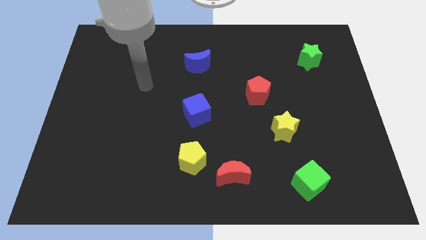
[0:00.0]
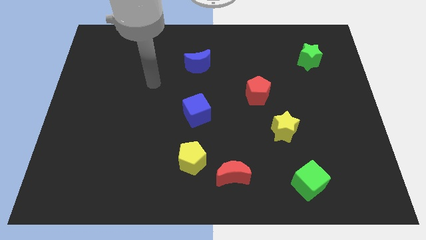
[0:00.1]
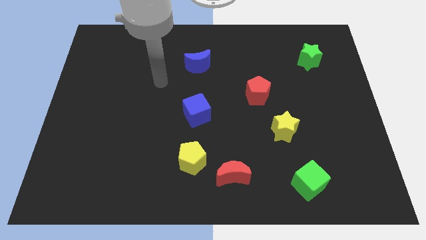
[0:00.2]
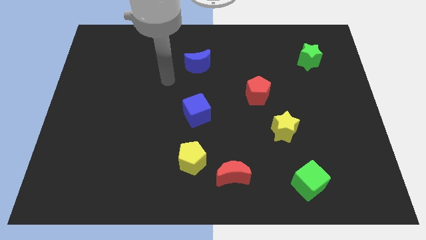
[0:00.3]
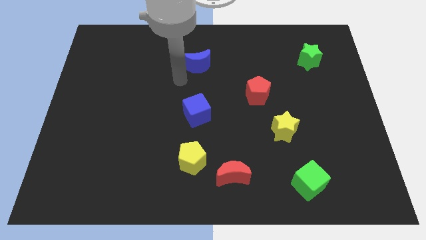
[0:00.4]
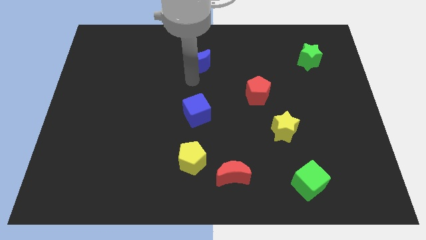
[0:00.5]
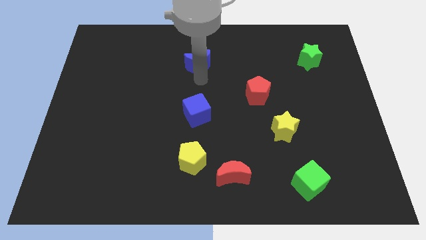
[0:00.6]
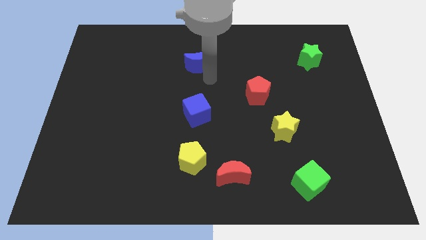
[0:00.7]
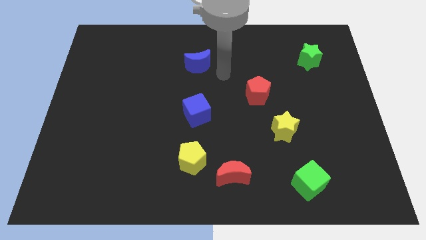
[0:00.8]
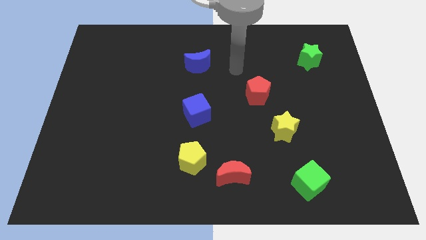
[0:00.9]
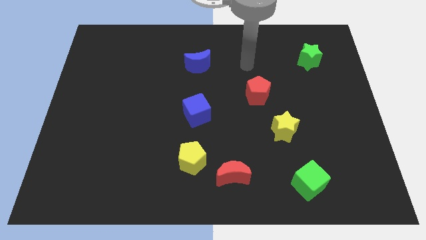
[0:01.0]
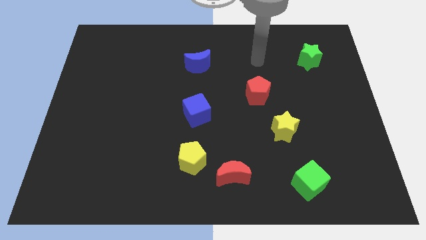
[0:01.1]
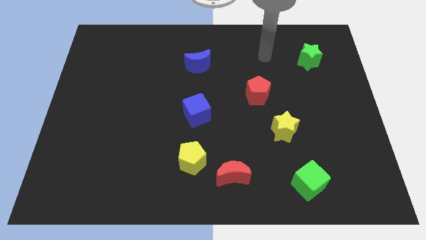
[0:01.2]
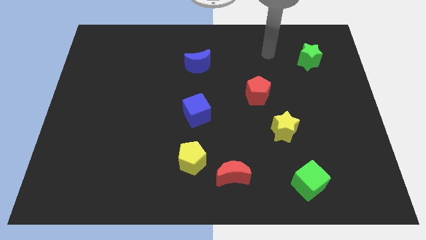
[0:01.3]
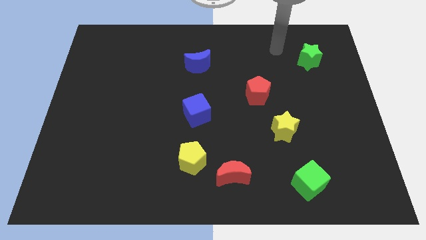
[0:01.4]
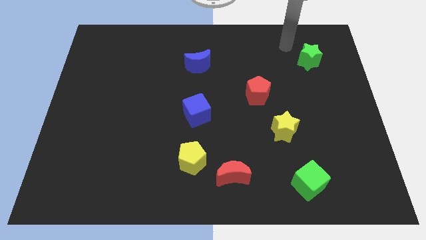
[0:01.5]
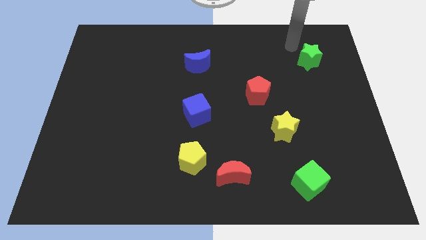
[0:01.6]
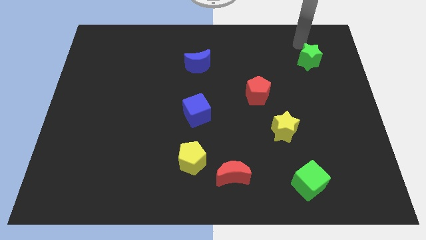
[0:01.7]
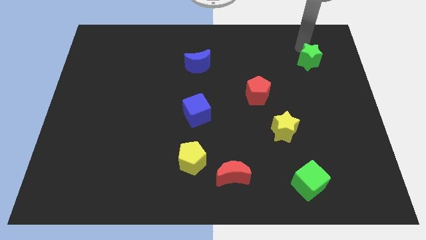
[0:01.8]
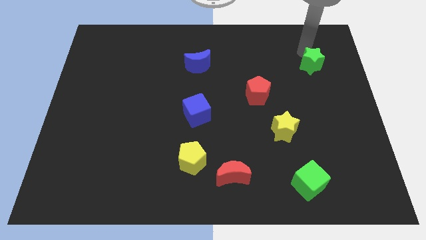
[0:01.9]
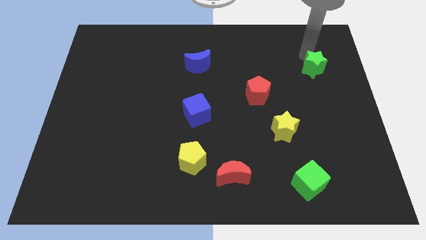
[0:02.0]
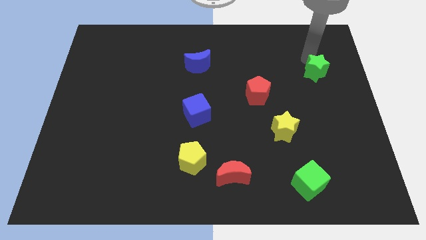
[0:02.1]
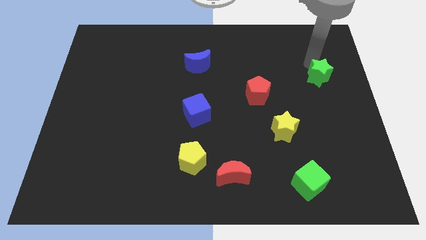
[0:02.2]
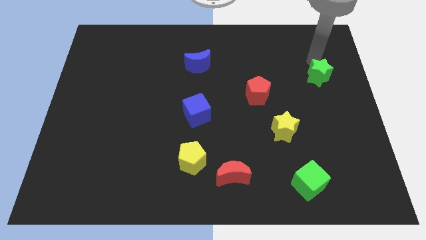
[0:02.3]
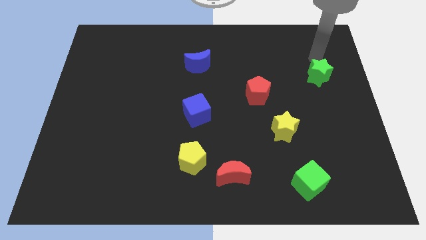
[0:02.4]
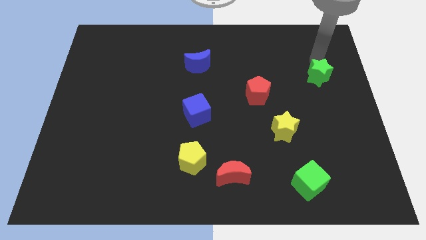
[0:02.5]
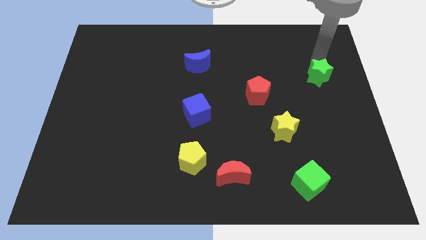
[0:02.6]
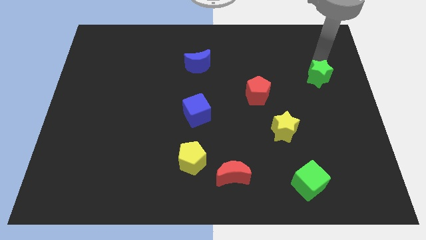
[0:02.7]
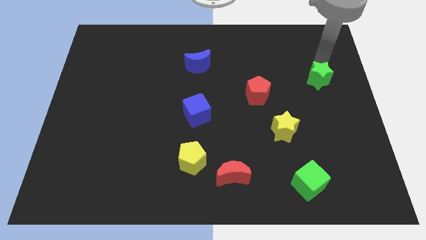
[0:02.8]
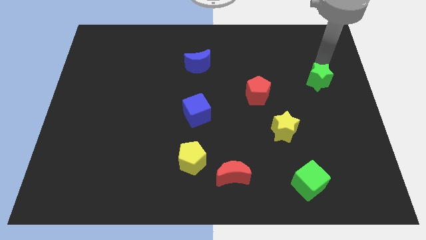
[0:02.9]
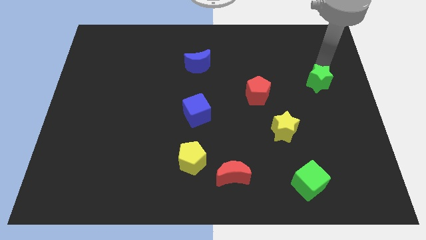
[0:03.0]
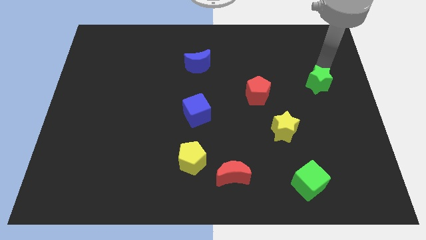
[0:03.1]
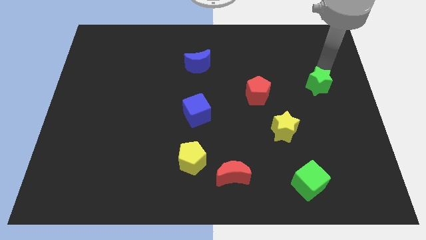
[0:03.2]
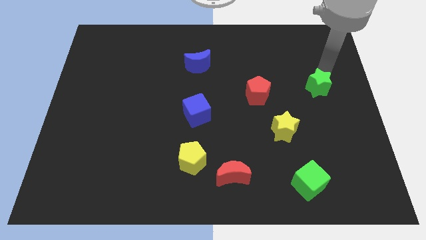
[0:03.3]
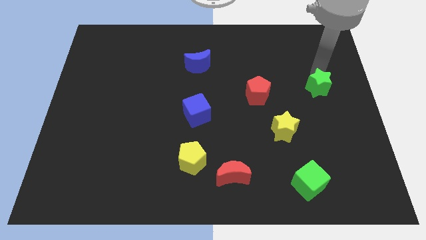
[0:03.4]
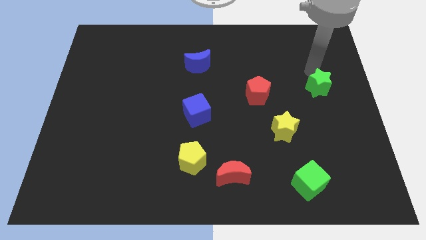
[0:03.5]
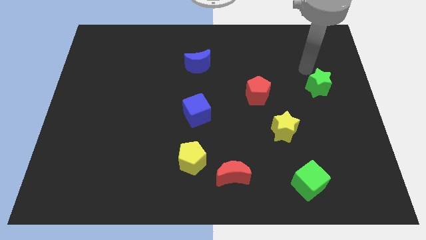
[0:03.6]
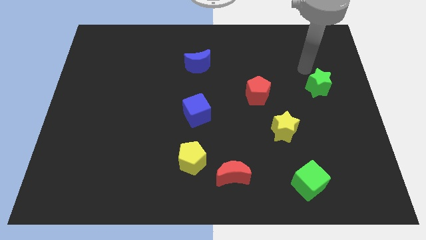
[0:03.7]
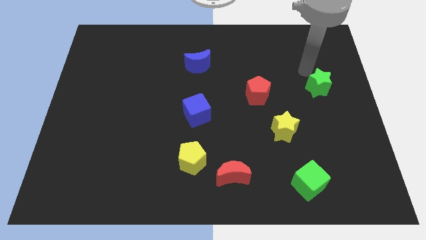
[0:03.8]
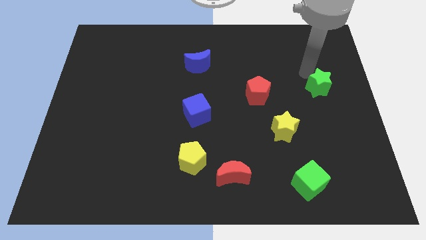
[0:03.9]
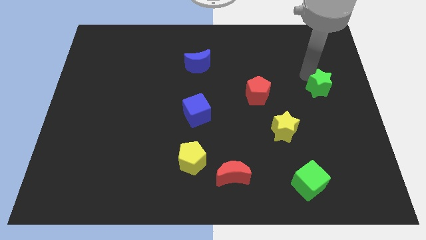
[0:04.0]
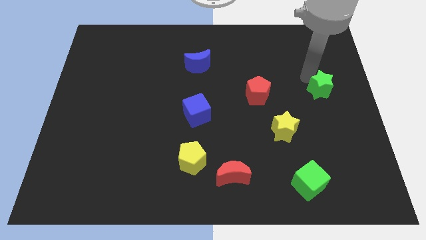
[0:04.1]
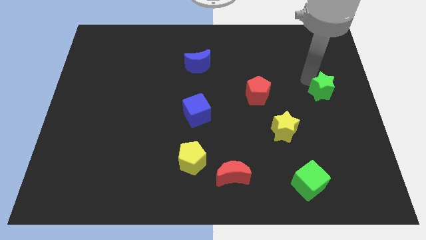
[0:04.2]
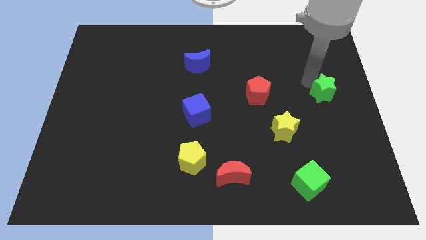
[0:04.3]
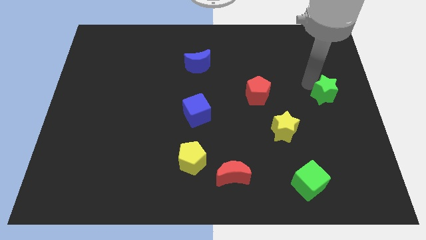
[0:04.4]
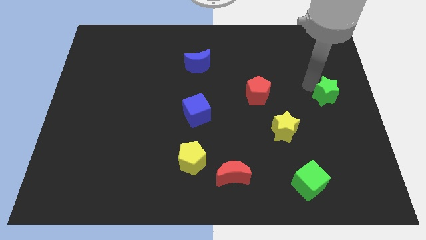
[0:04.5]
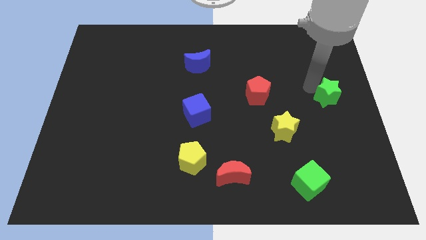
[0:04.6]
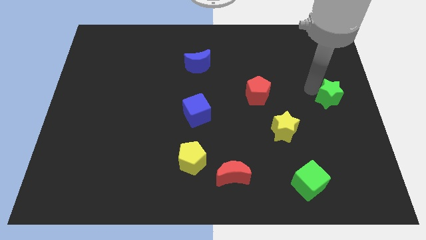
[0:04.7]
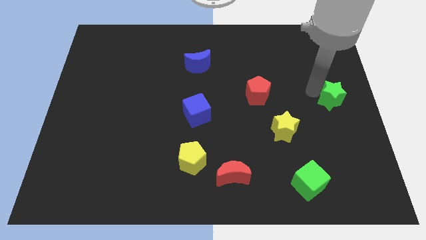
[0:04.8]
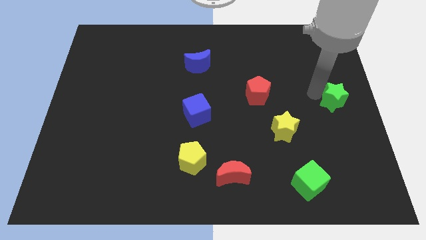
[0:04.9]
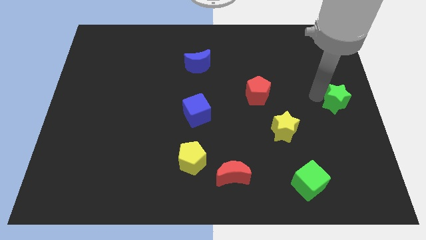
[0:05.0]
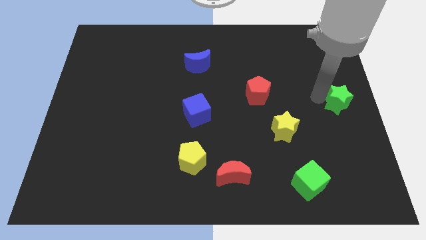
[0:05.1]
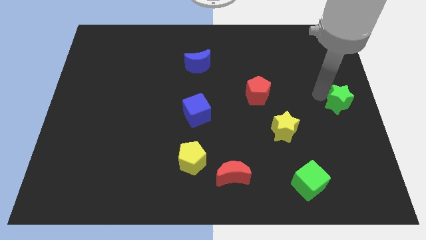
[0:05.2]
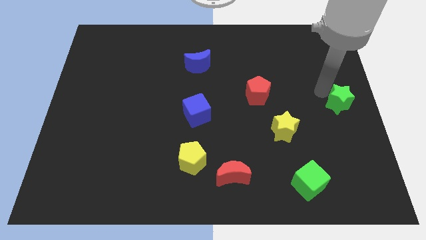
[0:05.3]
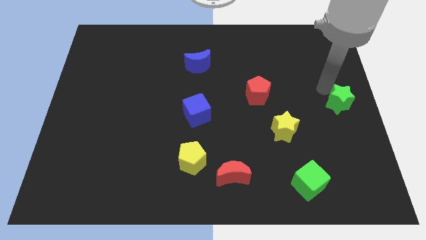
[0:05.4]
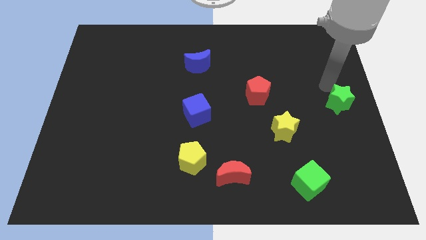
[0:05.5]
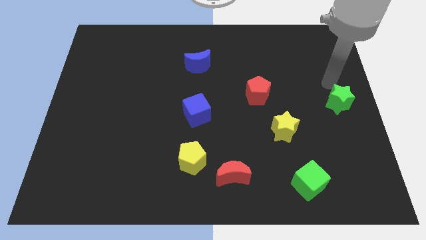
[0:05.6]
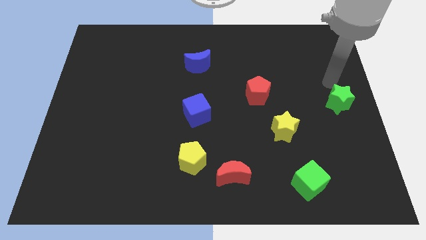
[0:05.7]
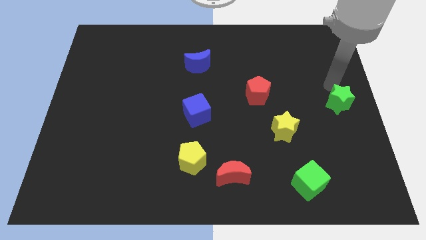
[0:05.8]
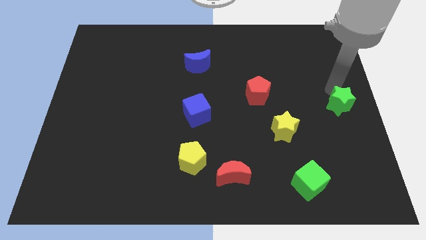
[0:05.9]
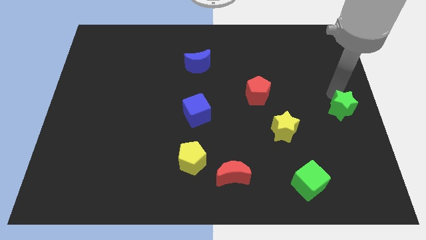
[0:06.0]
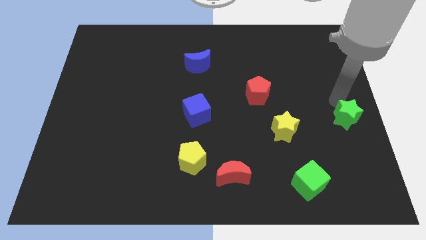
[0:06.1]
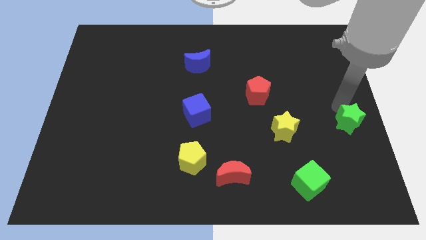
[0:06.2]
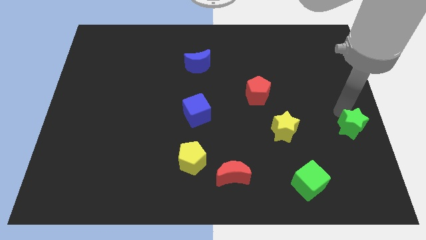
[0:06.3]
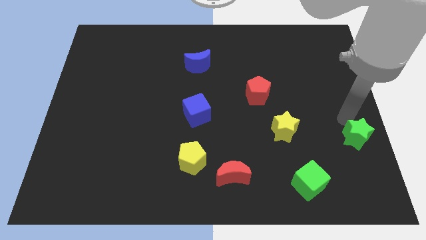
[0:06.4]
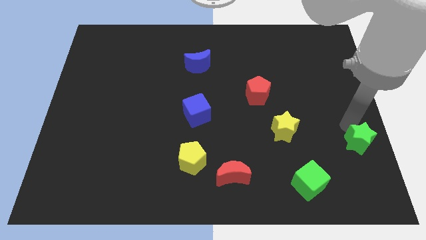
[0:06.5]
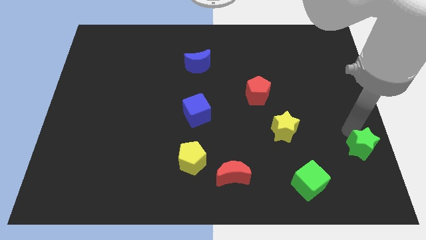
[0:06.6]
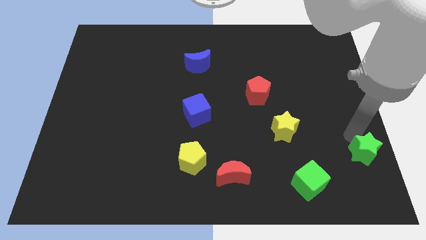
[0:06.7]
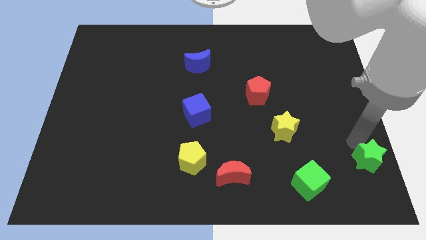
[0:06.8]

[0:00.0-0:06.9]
push the green star to the bottom right of the board
